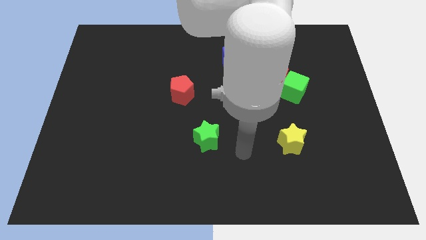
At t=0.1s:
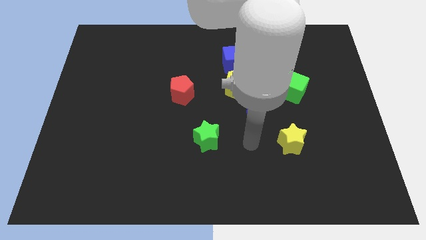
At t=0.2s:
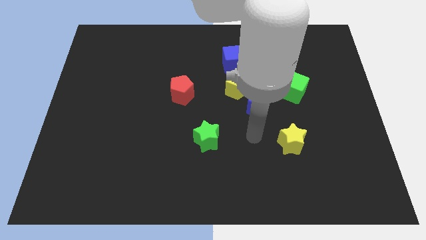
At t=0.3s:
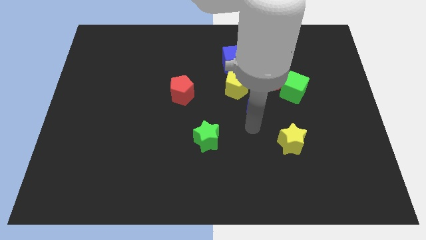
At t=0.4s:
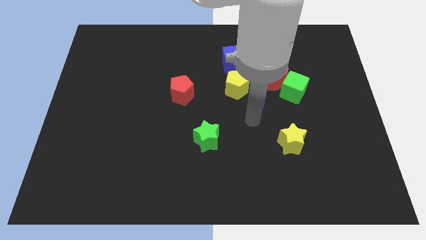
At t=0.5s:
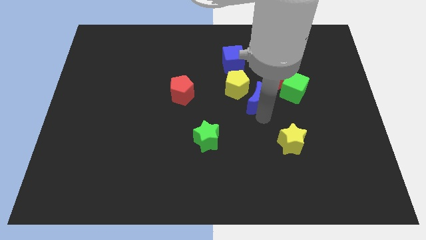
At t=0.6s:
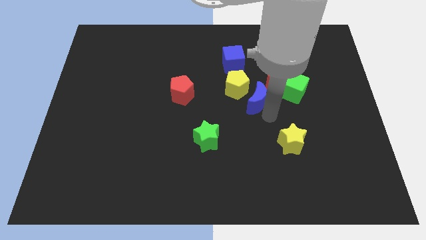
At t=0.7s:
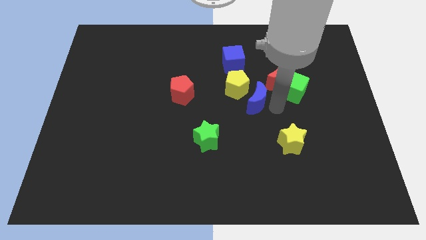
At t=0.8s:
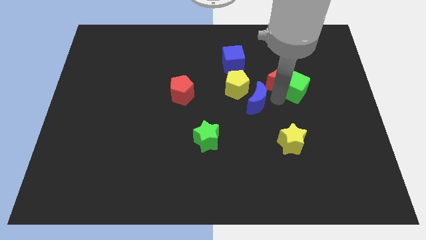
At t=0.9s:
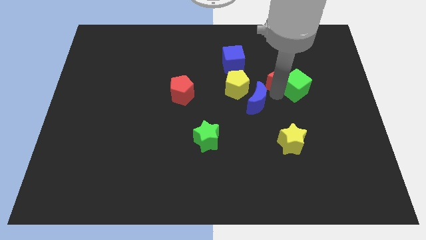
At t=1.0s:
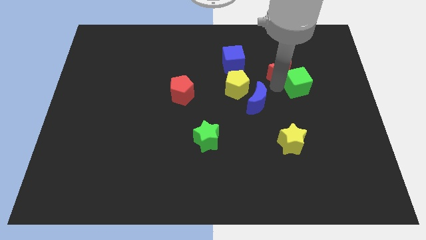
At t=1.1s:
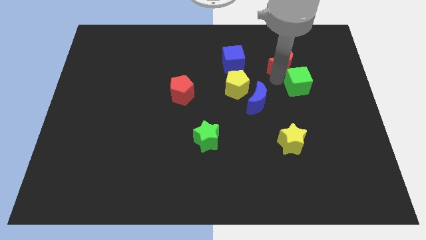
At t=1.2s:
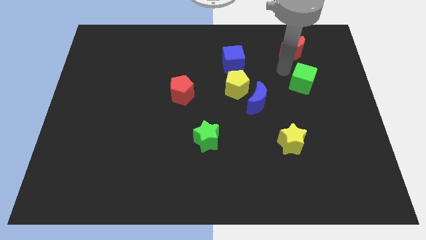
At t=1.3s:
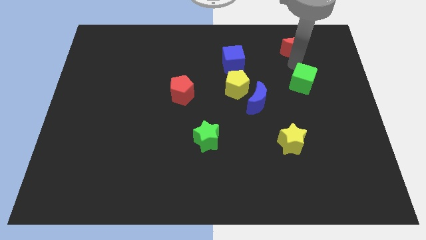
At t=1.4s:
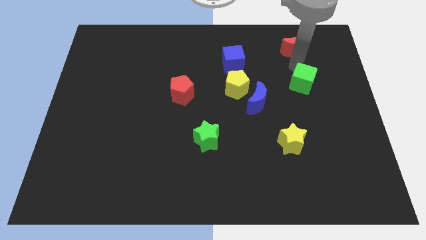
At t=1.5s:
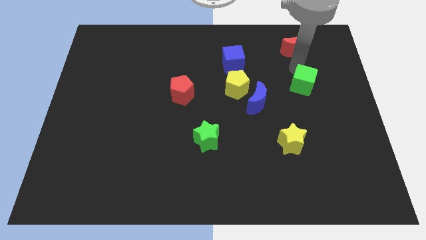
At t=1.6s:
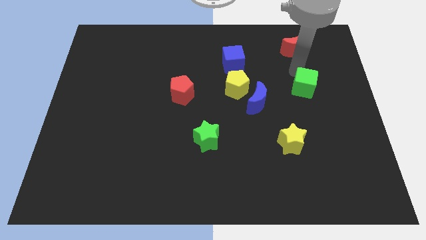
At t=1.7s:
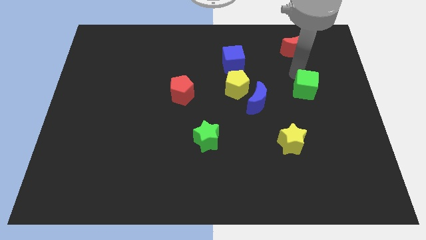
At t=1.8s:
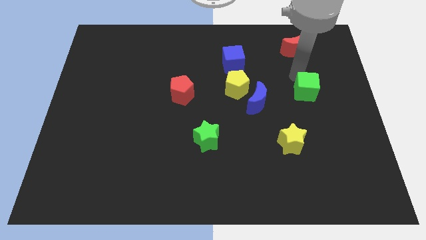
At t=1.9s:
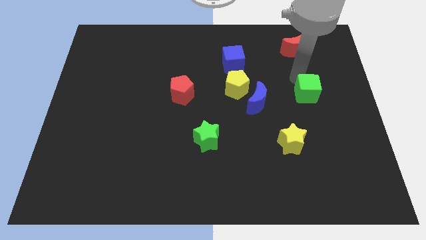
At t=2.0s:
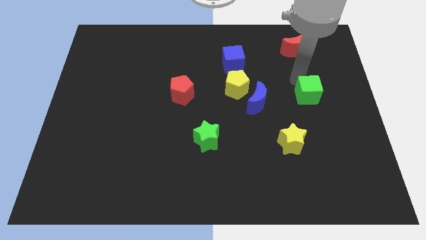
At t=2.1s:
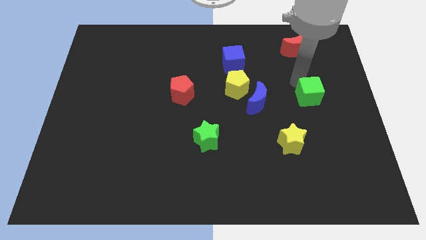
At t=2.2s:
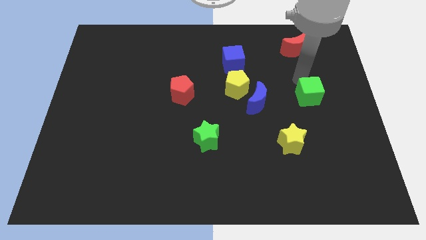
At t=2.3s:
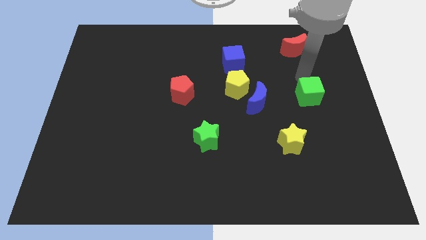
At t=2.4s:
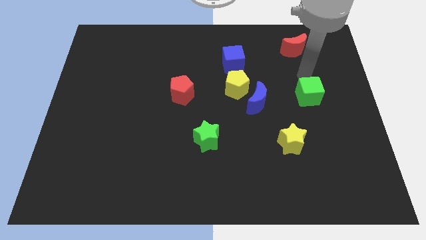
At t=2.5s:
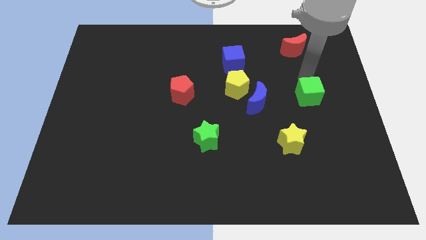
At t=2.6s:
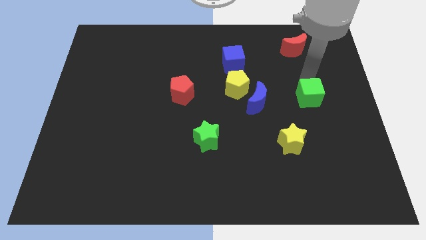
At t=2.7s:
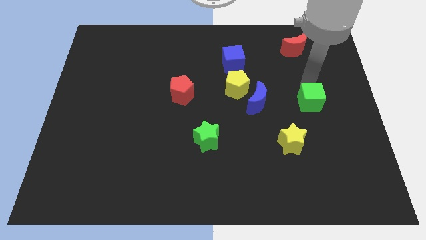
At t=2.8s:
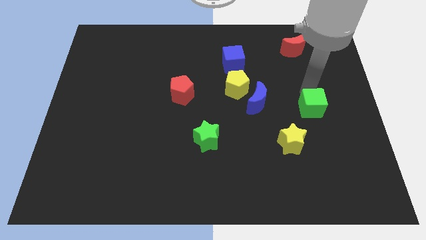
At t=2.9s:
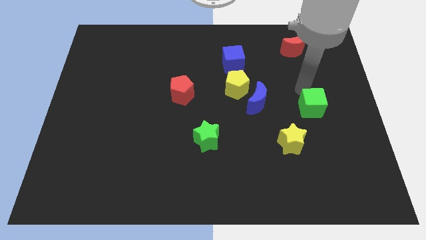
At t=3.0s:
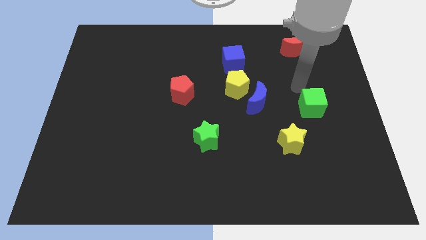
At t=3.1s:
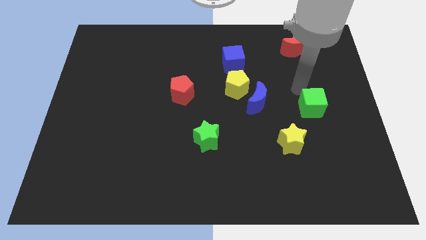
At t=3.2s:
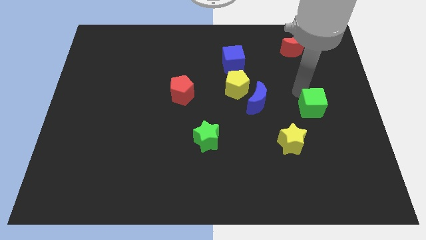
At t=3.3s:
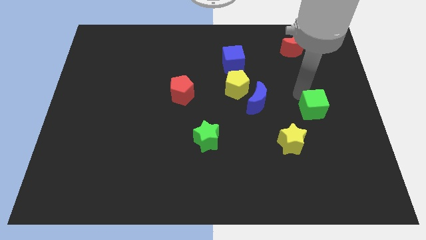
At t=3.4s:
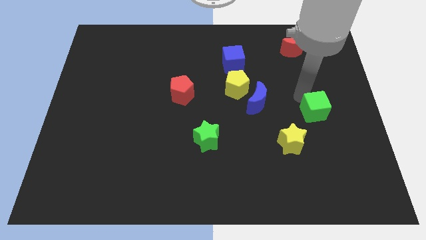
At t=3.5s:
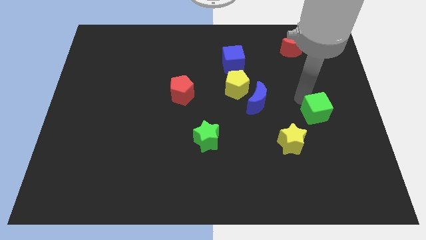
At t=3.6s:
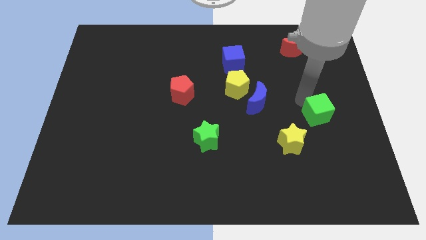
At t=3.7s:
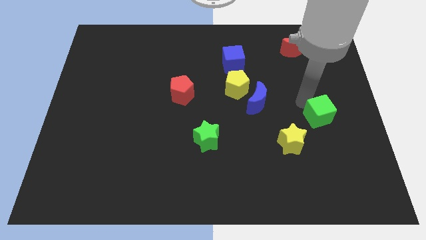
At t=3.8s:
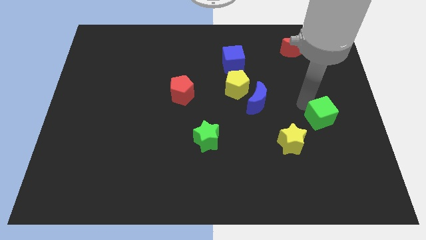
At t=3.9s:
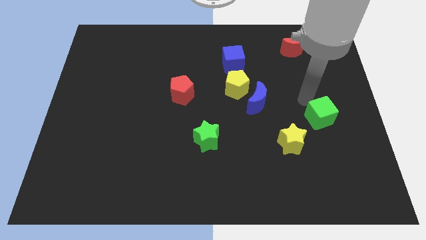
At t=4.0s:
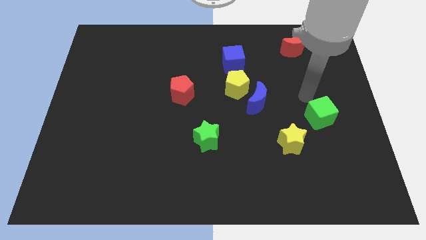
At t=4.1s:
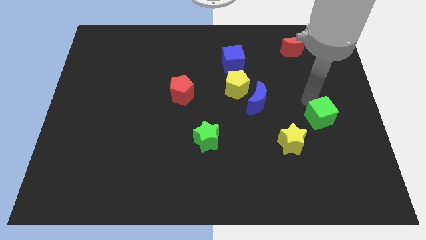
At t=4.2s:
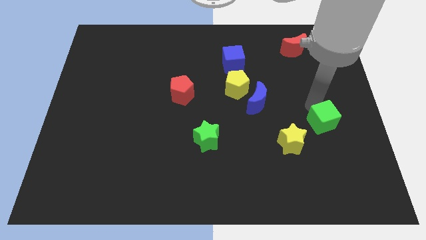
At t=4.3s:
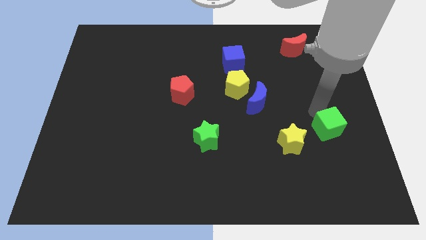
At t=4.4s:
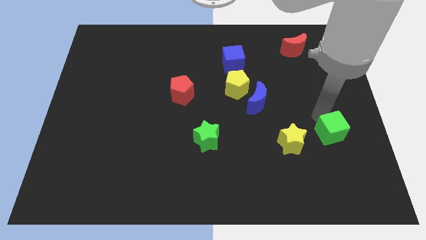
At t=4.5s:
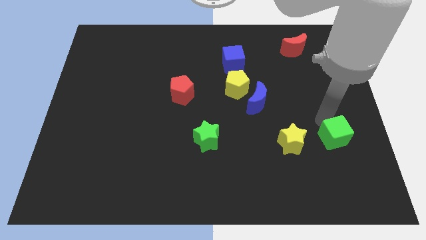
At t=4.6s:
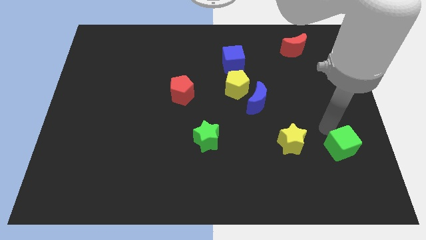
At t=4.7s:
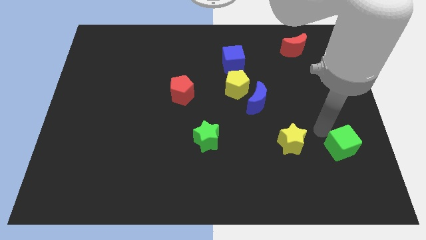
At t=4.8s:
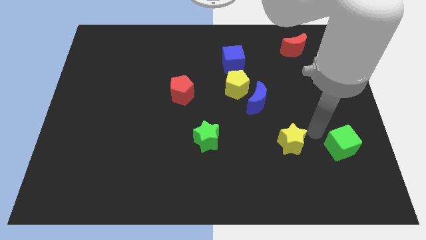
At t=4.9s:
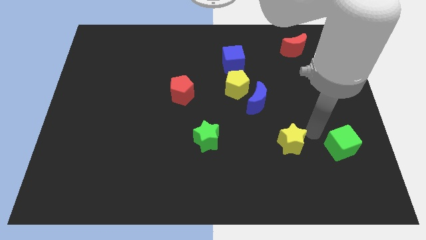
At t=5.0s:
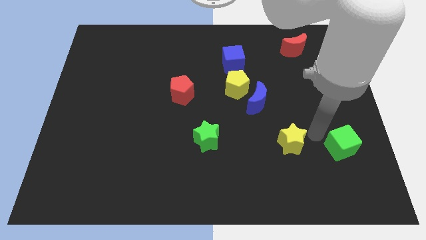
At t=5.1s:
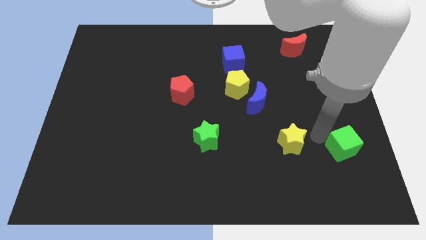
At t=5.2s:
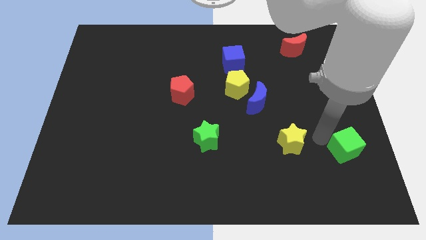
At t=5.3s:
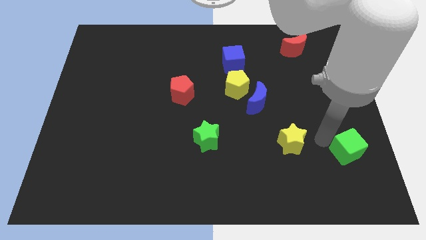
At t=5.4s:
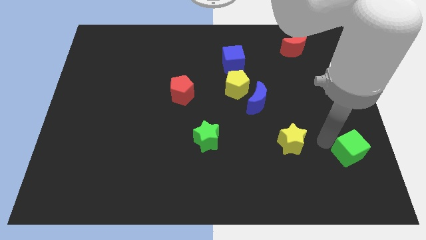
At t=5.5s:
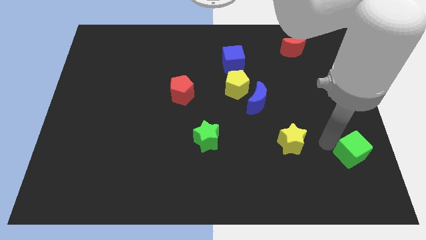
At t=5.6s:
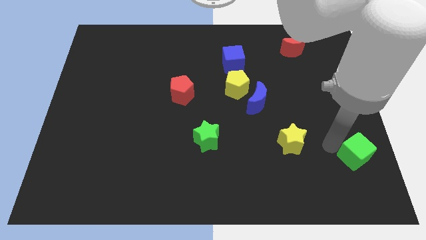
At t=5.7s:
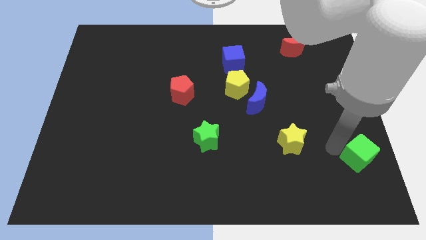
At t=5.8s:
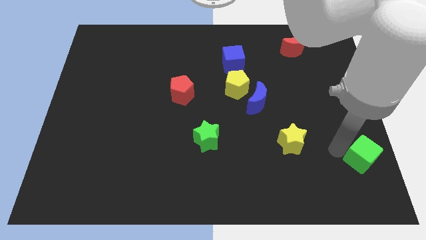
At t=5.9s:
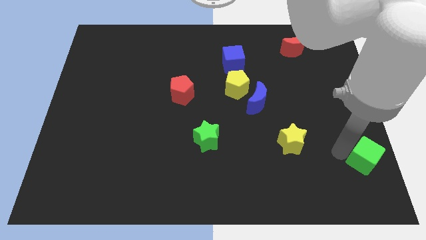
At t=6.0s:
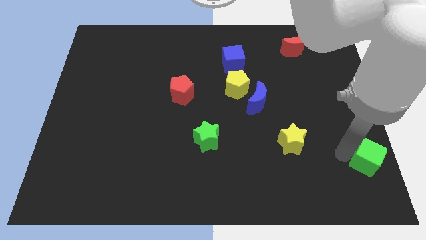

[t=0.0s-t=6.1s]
move the green cube to the bottom right corner

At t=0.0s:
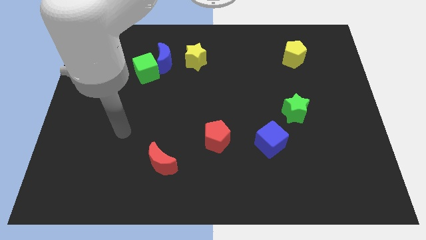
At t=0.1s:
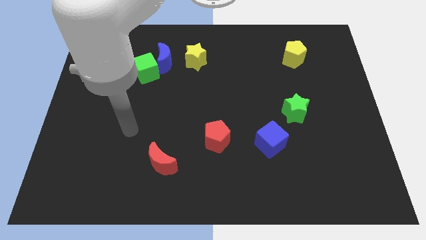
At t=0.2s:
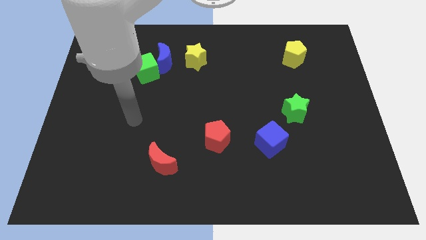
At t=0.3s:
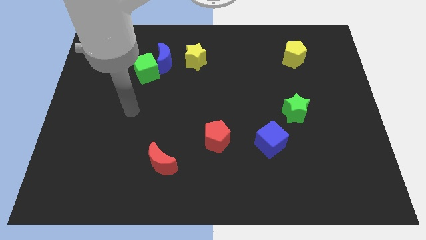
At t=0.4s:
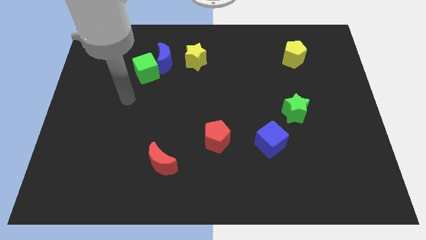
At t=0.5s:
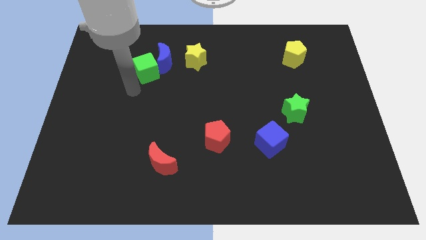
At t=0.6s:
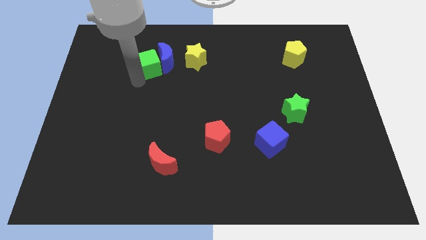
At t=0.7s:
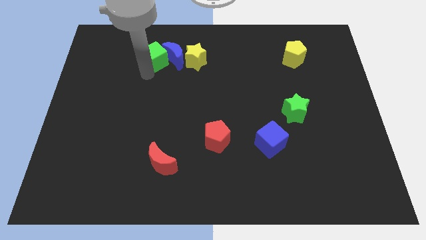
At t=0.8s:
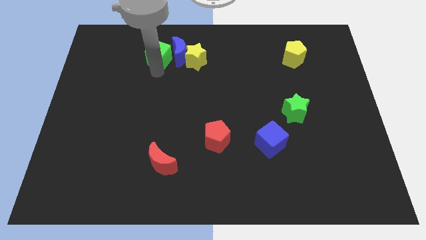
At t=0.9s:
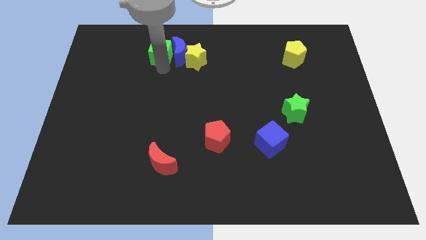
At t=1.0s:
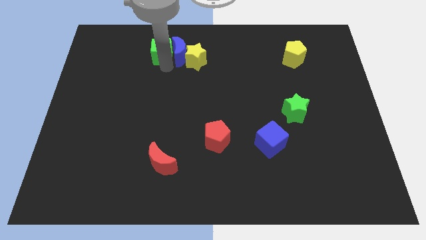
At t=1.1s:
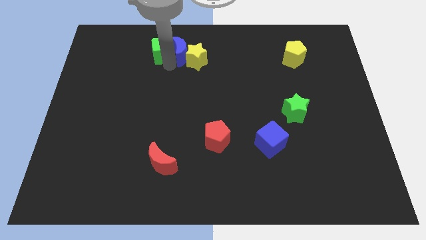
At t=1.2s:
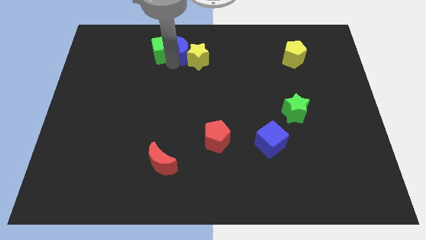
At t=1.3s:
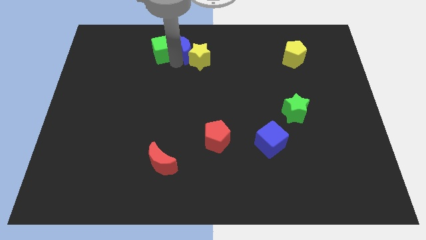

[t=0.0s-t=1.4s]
slide the blue moon to the top side
